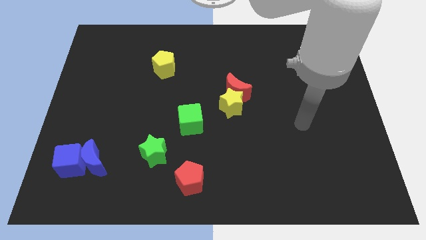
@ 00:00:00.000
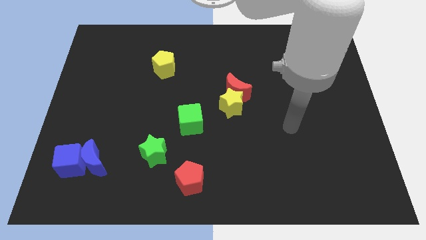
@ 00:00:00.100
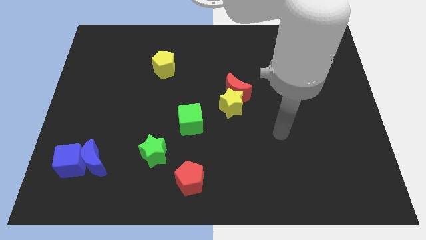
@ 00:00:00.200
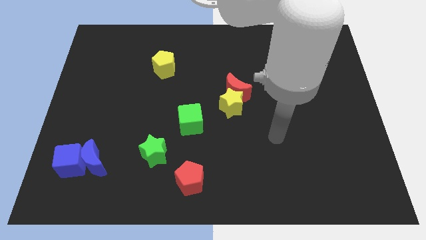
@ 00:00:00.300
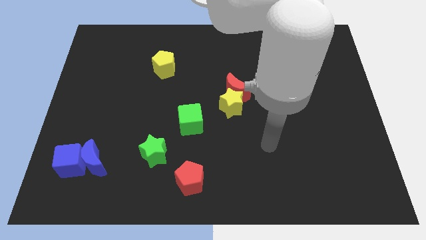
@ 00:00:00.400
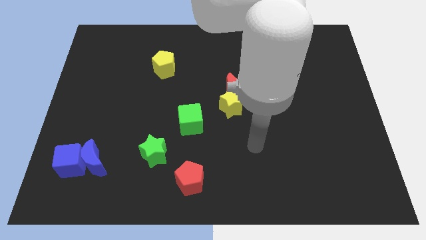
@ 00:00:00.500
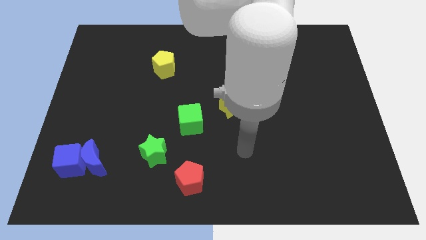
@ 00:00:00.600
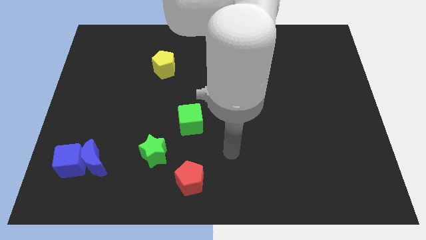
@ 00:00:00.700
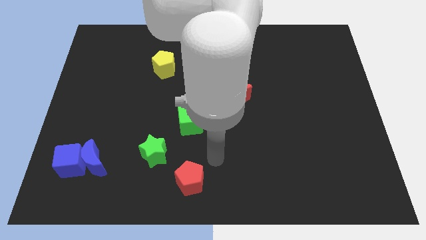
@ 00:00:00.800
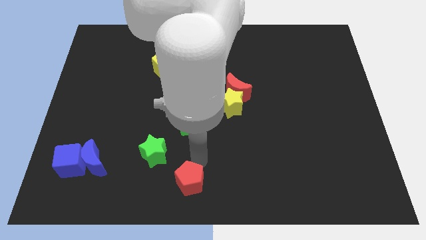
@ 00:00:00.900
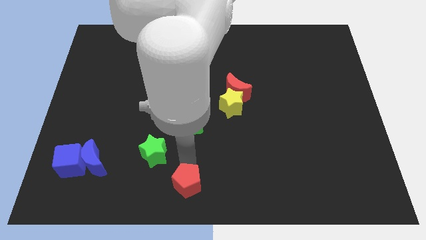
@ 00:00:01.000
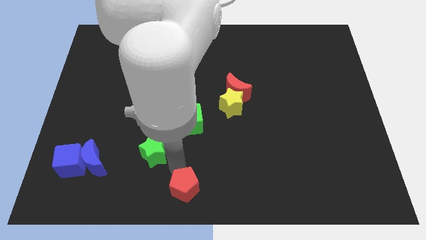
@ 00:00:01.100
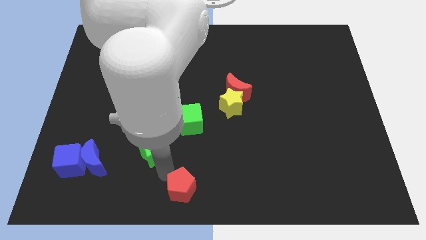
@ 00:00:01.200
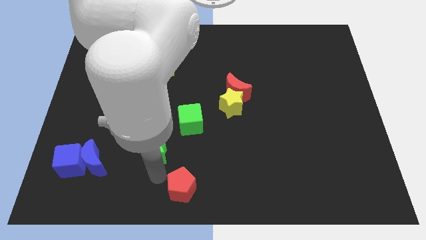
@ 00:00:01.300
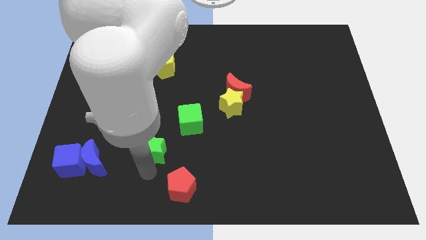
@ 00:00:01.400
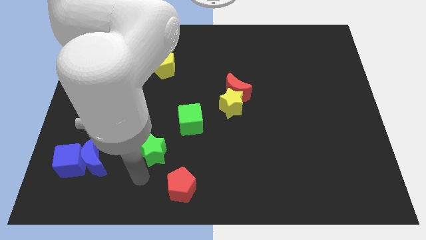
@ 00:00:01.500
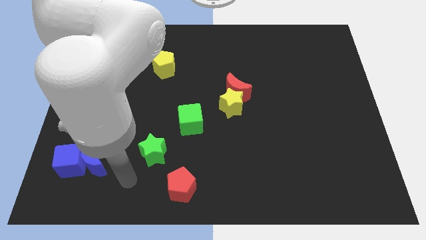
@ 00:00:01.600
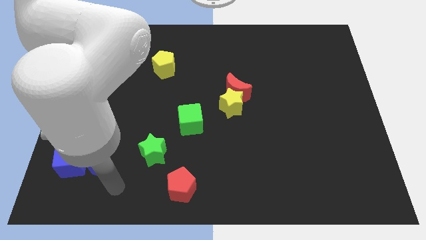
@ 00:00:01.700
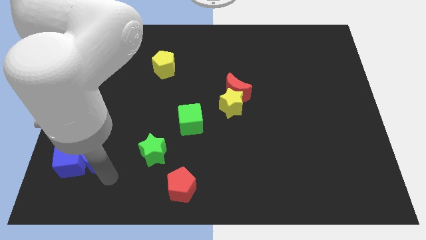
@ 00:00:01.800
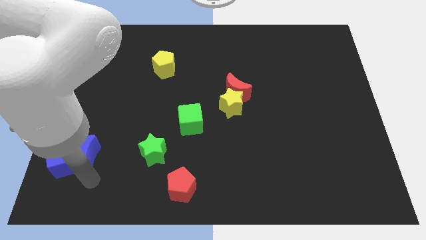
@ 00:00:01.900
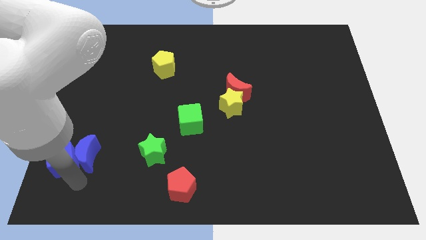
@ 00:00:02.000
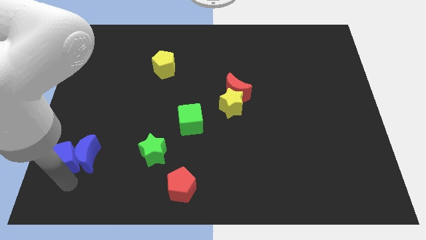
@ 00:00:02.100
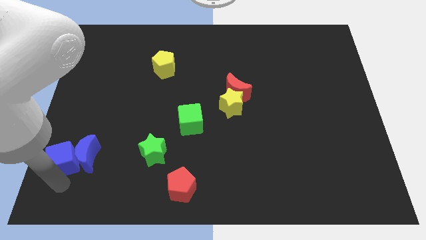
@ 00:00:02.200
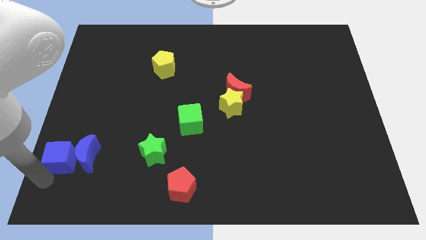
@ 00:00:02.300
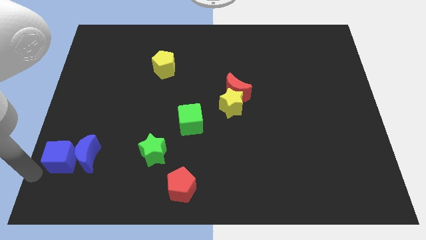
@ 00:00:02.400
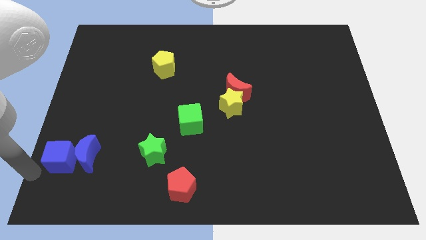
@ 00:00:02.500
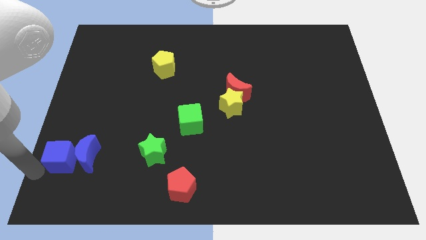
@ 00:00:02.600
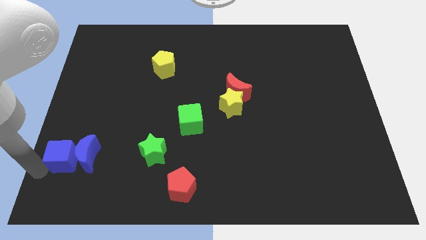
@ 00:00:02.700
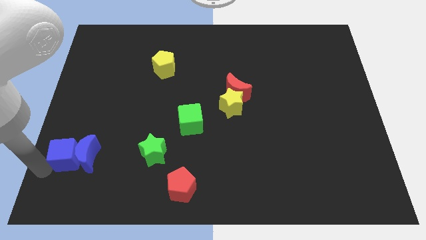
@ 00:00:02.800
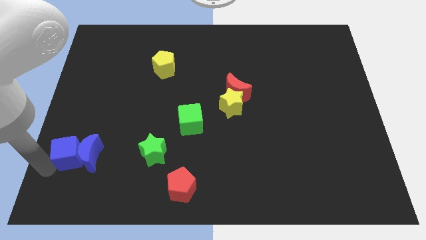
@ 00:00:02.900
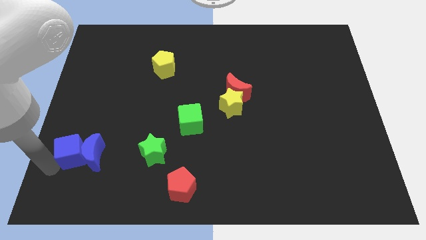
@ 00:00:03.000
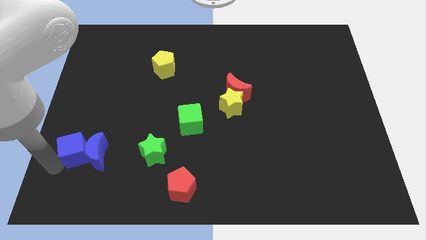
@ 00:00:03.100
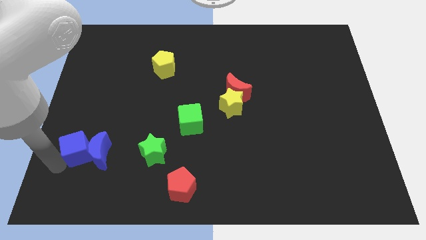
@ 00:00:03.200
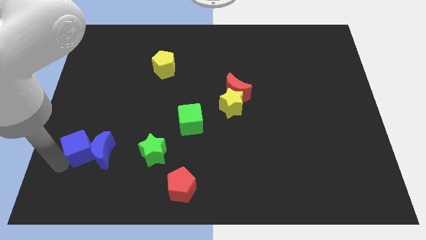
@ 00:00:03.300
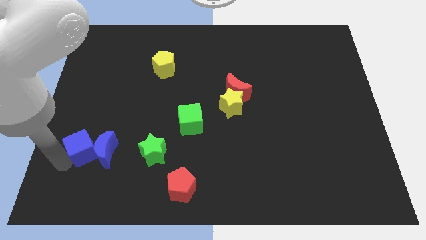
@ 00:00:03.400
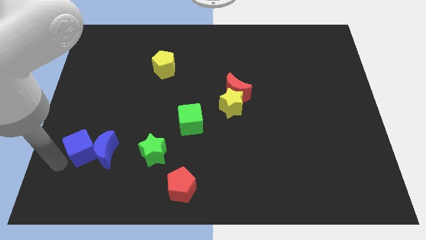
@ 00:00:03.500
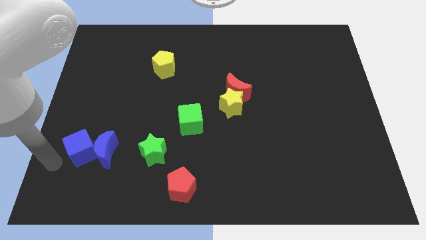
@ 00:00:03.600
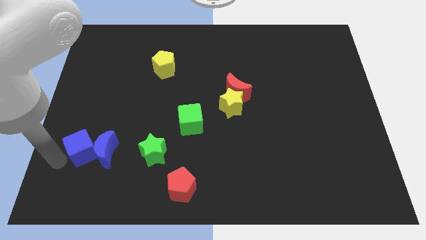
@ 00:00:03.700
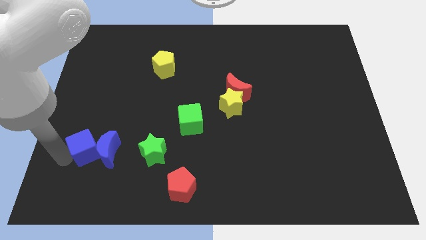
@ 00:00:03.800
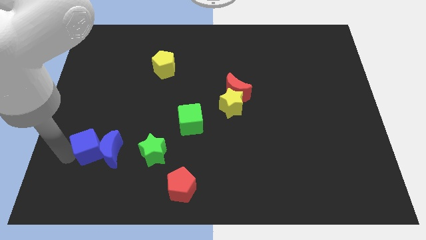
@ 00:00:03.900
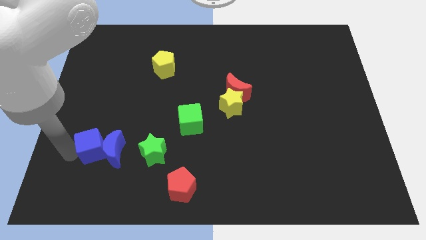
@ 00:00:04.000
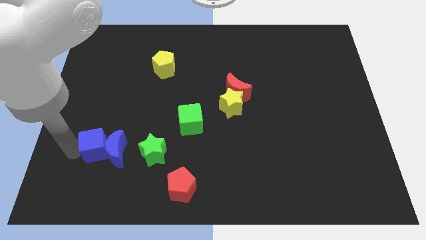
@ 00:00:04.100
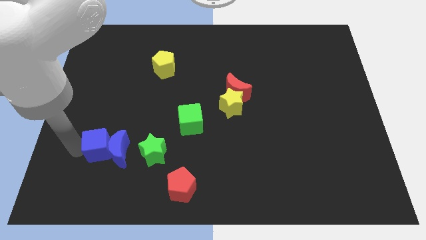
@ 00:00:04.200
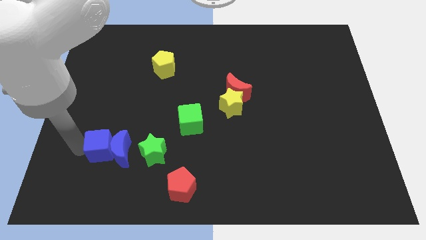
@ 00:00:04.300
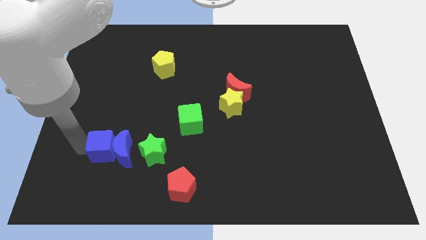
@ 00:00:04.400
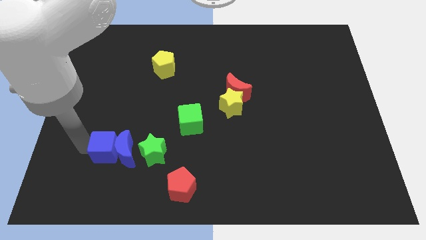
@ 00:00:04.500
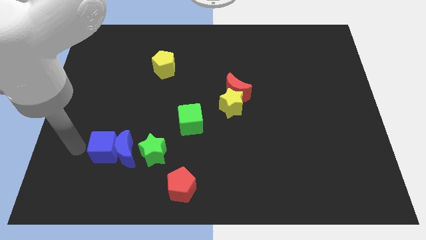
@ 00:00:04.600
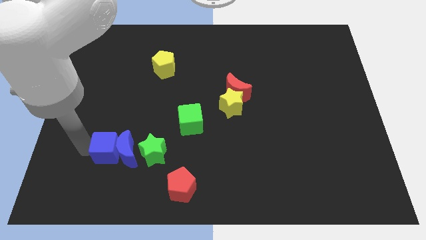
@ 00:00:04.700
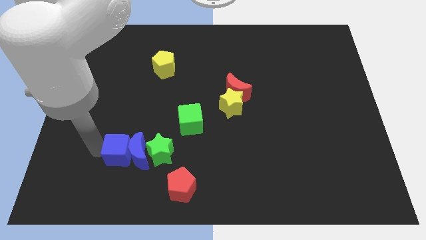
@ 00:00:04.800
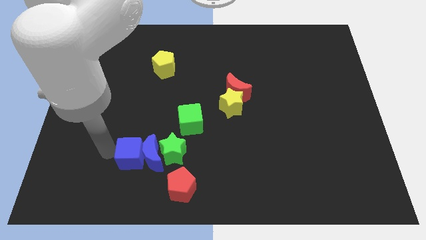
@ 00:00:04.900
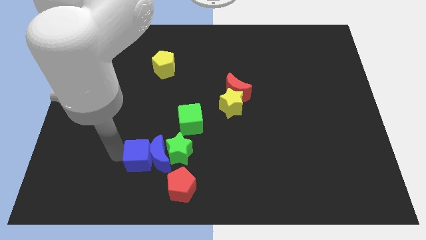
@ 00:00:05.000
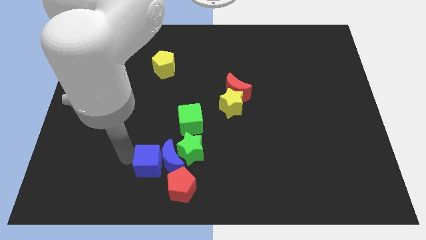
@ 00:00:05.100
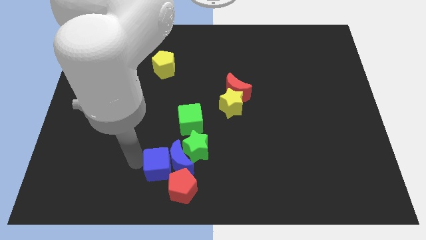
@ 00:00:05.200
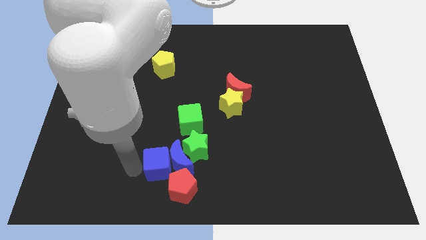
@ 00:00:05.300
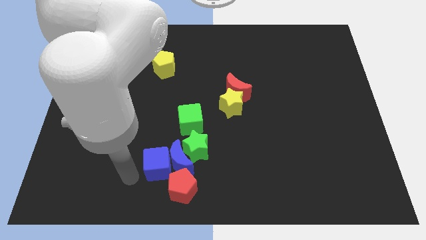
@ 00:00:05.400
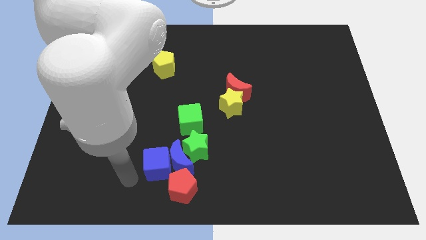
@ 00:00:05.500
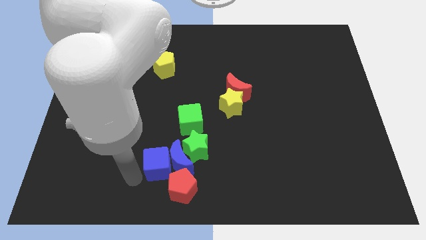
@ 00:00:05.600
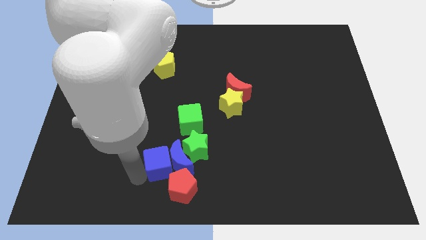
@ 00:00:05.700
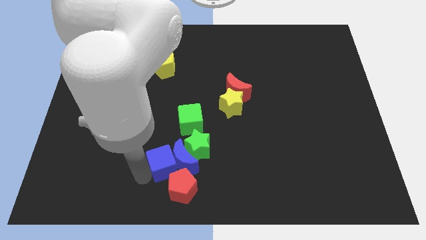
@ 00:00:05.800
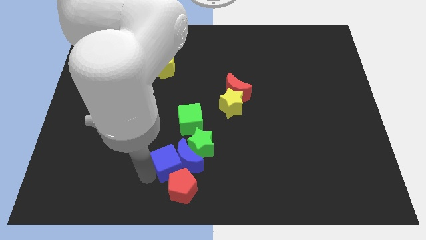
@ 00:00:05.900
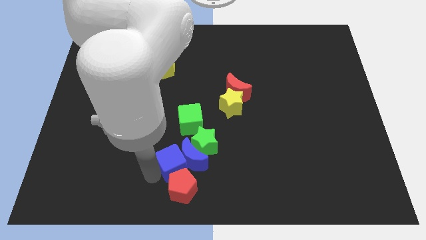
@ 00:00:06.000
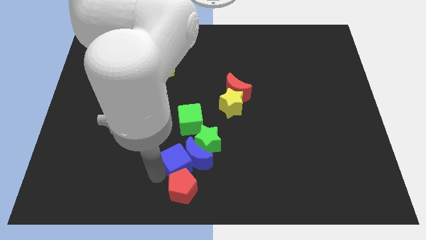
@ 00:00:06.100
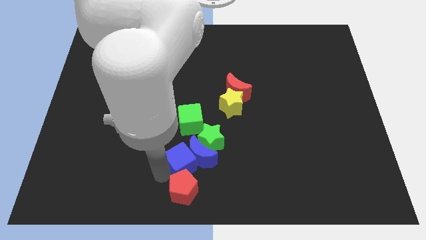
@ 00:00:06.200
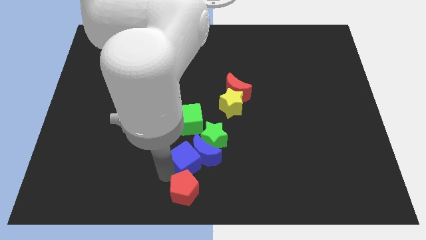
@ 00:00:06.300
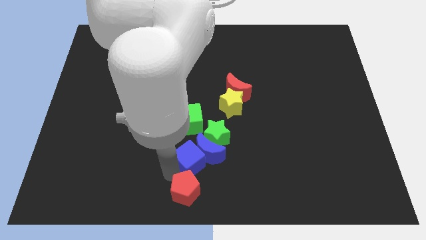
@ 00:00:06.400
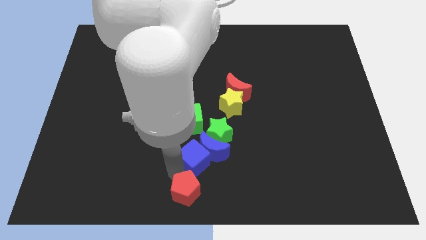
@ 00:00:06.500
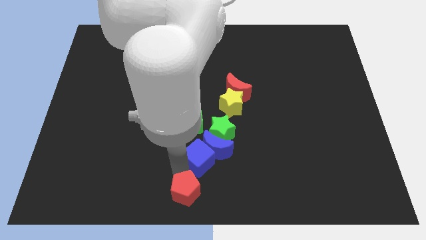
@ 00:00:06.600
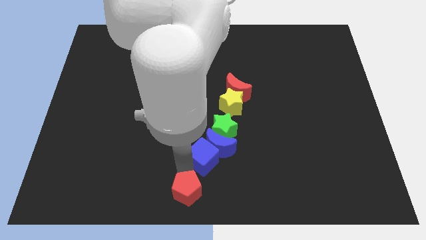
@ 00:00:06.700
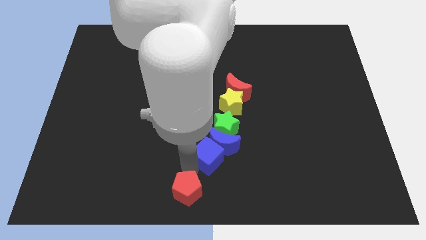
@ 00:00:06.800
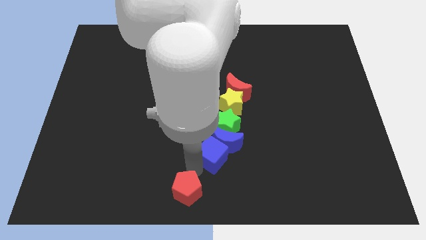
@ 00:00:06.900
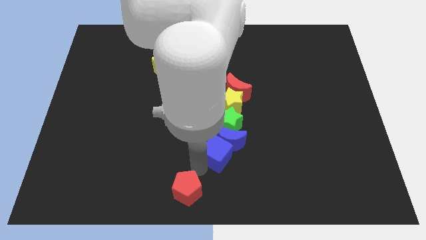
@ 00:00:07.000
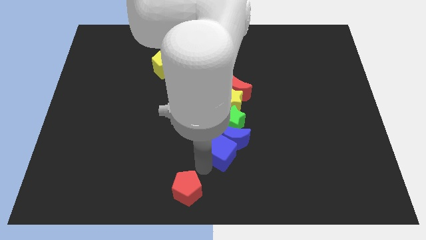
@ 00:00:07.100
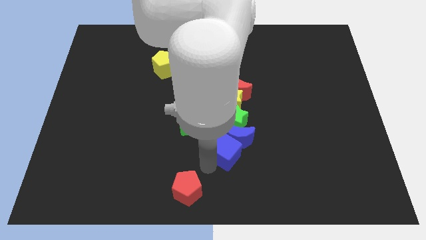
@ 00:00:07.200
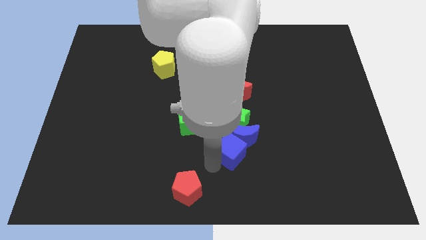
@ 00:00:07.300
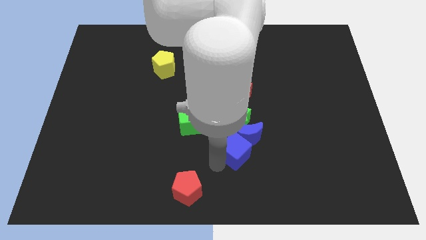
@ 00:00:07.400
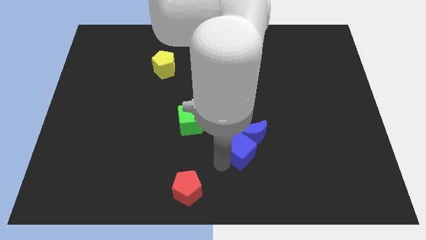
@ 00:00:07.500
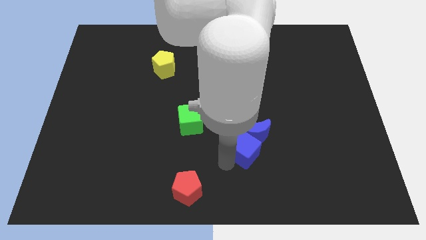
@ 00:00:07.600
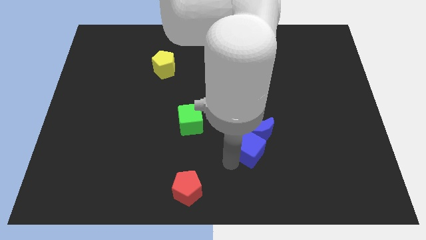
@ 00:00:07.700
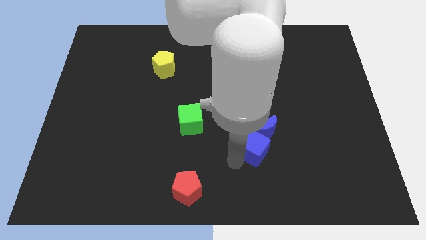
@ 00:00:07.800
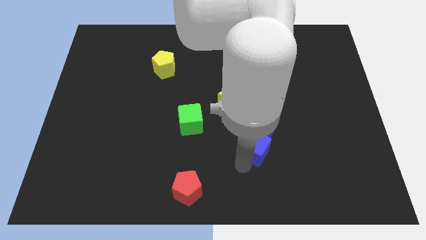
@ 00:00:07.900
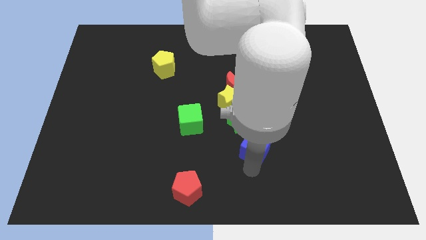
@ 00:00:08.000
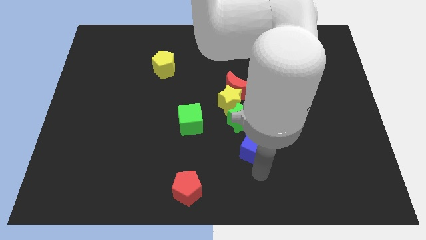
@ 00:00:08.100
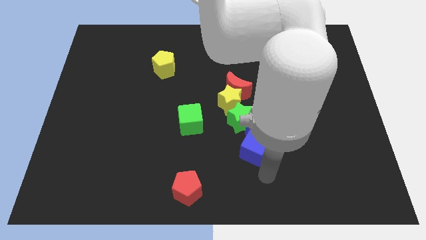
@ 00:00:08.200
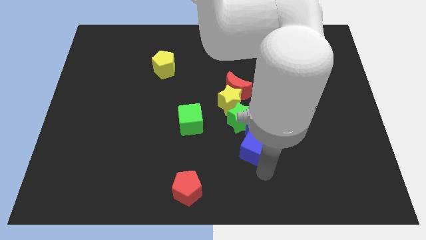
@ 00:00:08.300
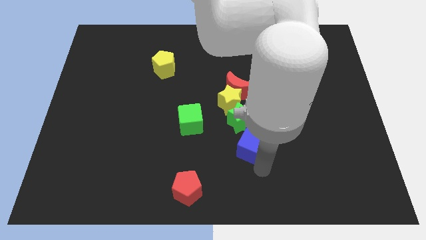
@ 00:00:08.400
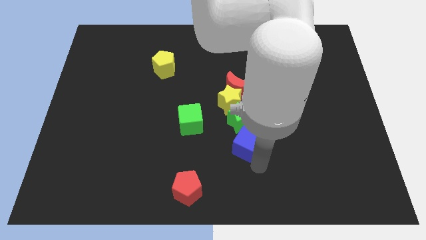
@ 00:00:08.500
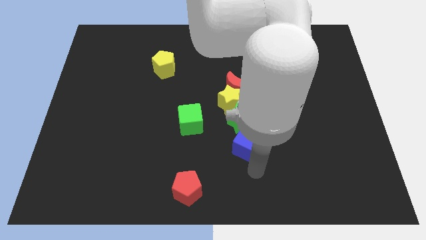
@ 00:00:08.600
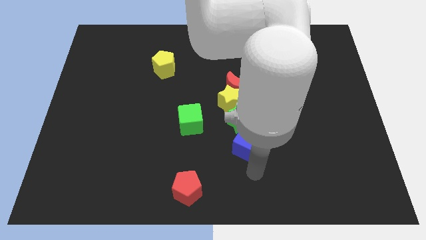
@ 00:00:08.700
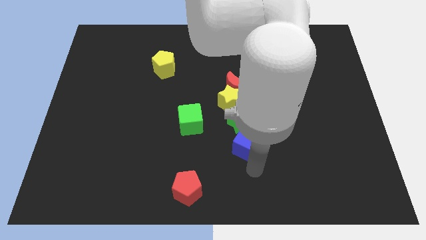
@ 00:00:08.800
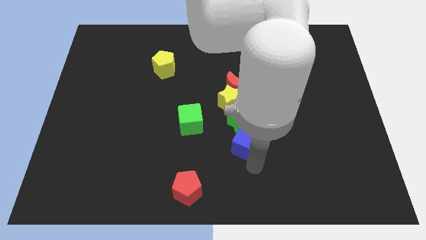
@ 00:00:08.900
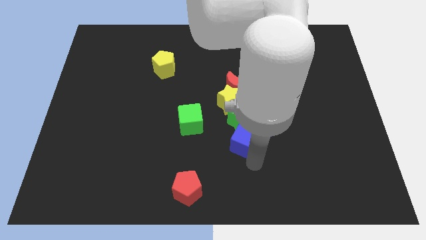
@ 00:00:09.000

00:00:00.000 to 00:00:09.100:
slide the blue cube to the green star
